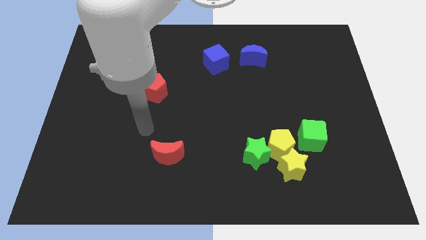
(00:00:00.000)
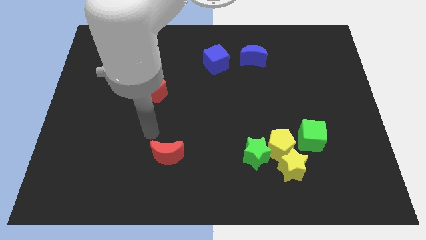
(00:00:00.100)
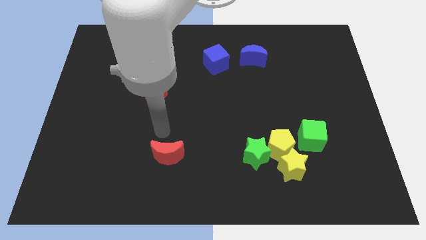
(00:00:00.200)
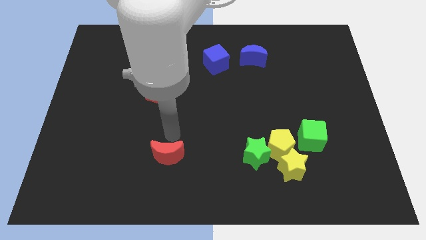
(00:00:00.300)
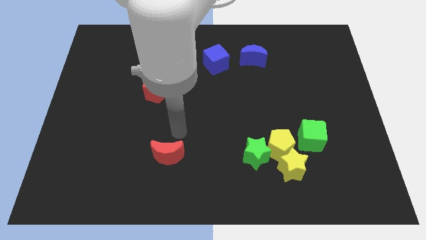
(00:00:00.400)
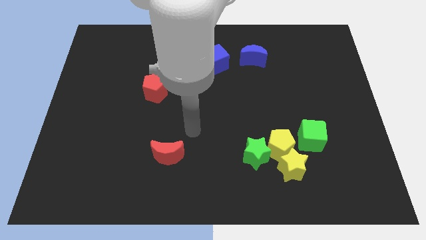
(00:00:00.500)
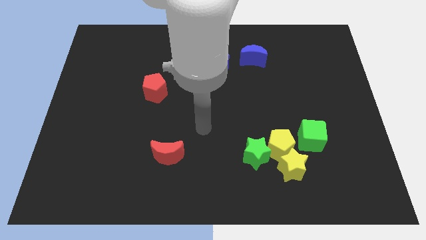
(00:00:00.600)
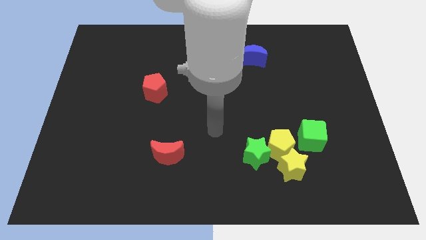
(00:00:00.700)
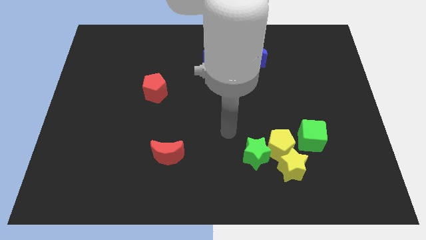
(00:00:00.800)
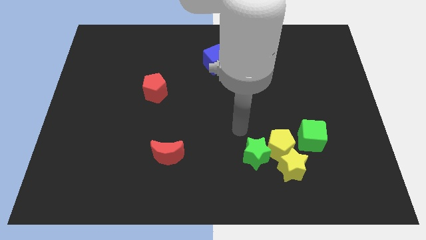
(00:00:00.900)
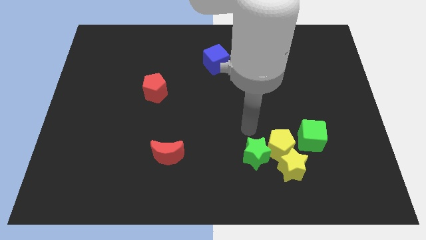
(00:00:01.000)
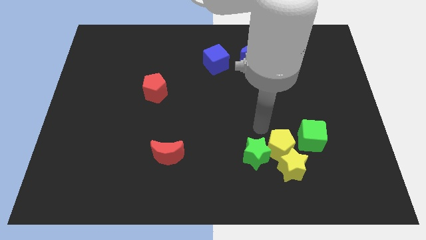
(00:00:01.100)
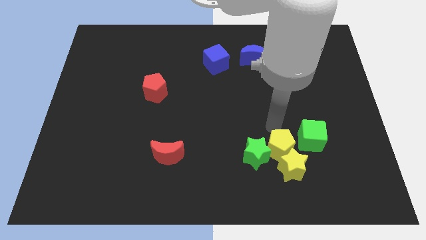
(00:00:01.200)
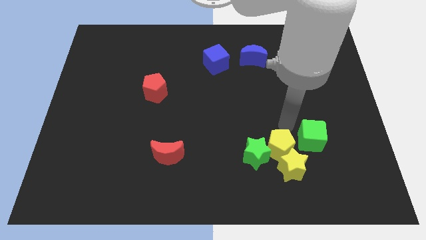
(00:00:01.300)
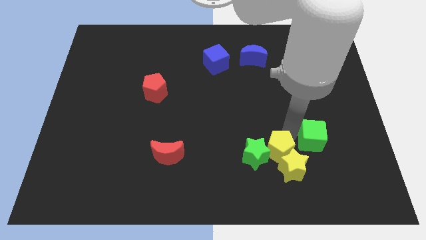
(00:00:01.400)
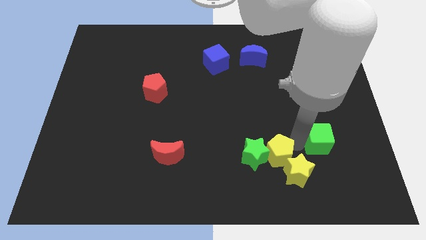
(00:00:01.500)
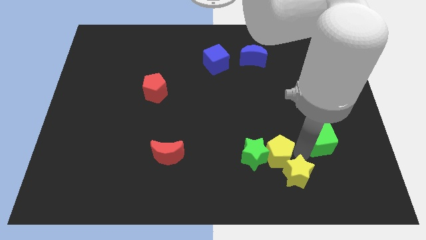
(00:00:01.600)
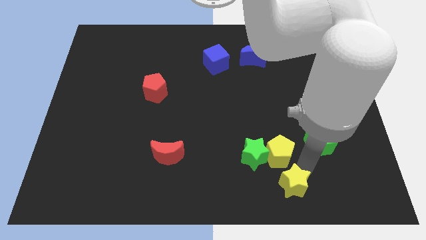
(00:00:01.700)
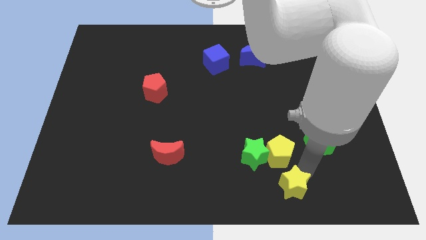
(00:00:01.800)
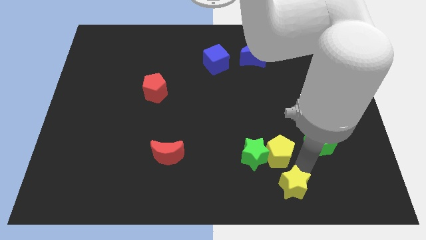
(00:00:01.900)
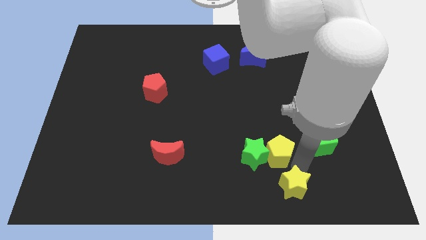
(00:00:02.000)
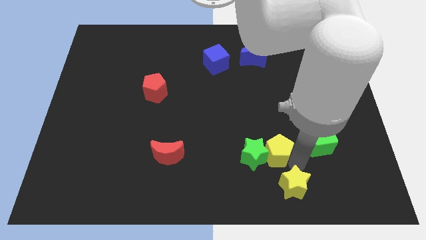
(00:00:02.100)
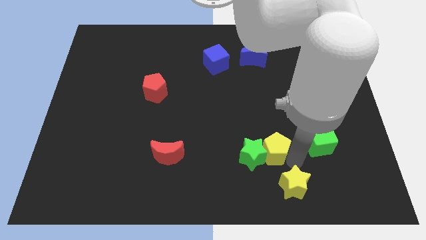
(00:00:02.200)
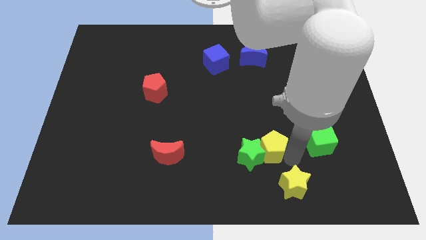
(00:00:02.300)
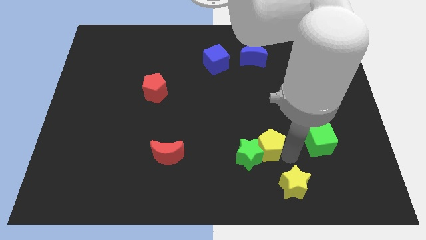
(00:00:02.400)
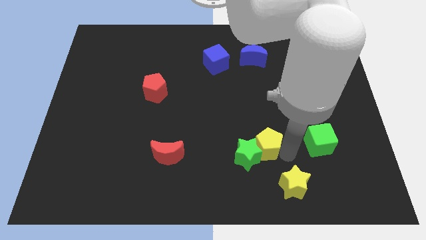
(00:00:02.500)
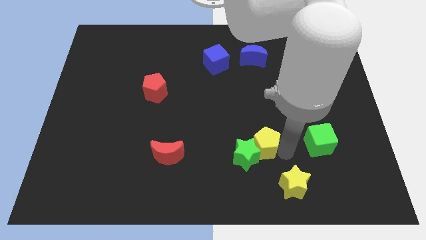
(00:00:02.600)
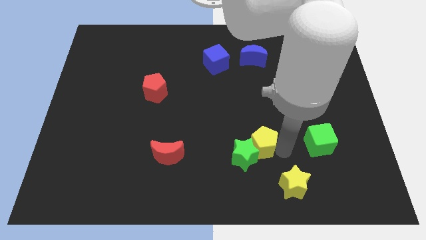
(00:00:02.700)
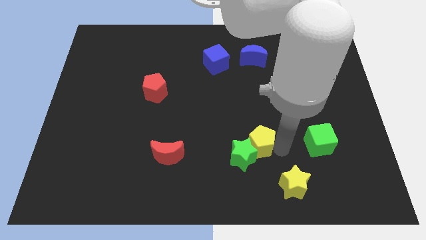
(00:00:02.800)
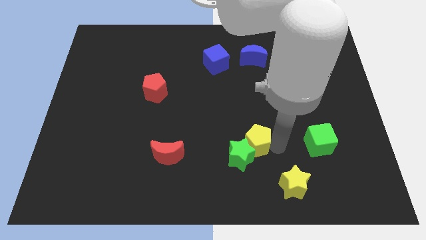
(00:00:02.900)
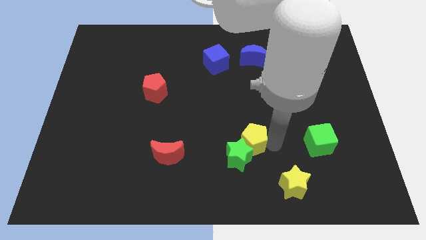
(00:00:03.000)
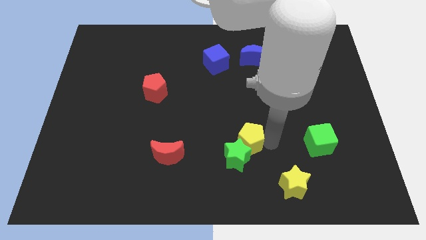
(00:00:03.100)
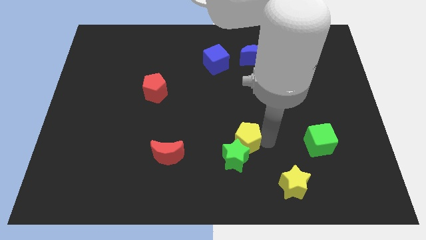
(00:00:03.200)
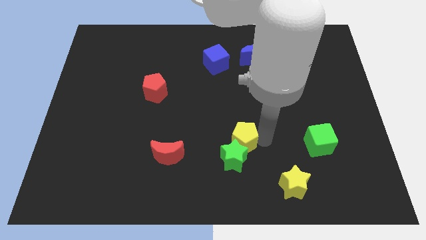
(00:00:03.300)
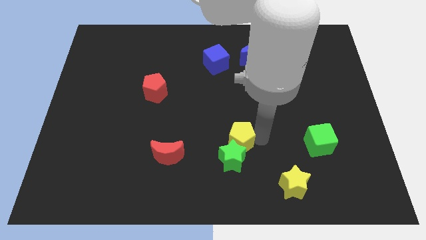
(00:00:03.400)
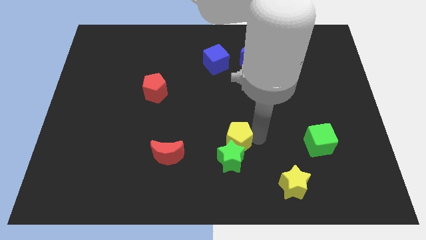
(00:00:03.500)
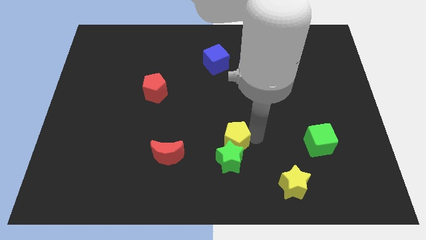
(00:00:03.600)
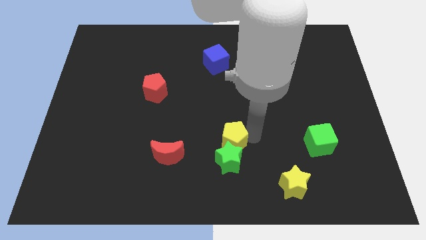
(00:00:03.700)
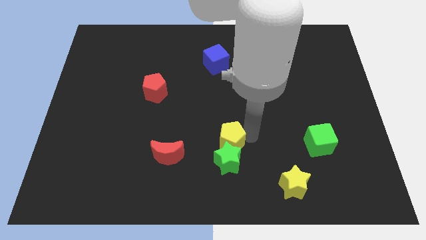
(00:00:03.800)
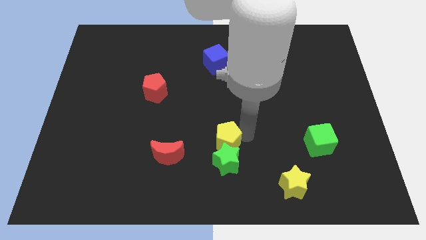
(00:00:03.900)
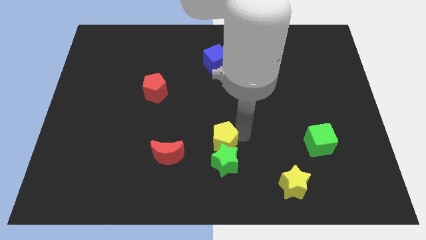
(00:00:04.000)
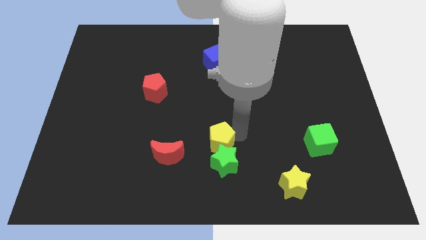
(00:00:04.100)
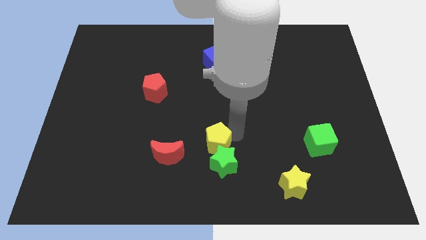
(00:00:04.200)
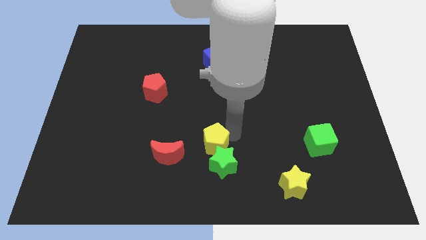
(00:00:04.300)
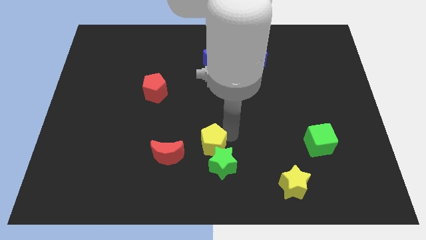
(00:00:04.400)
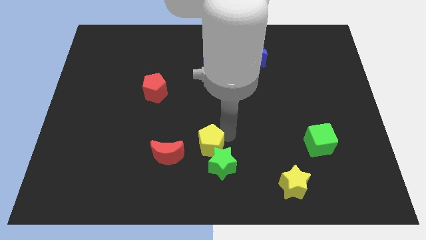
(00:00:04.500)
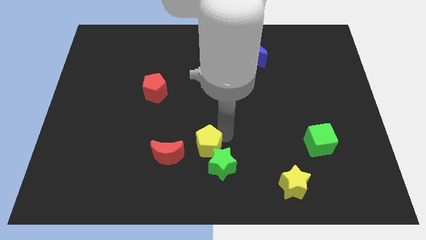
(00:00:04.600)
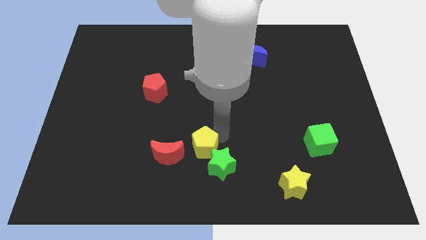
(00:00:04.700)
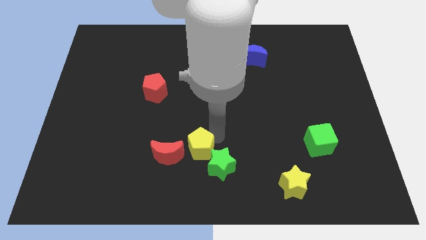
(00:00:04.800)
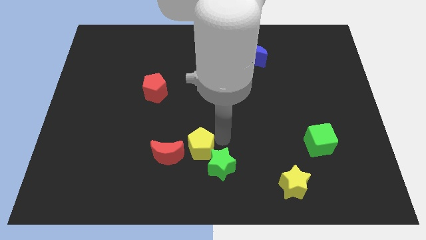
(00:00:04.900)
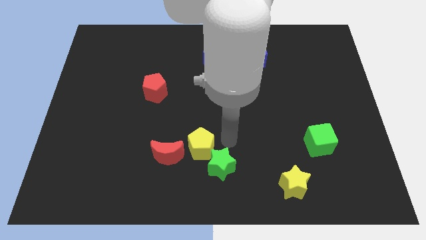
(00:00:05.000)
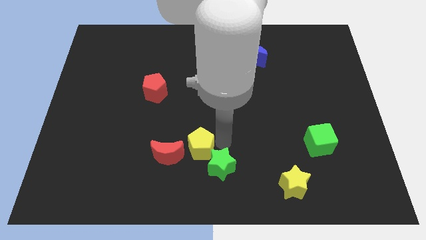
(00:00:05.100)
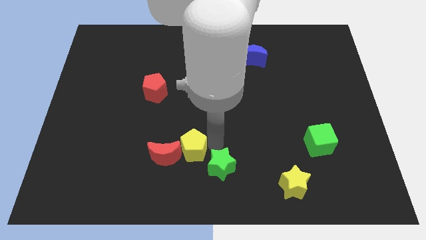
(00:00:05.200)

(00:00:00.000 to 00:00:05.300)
put the yellow pentagon towards the red moon

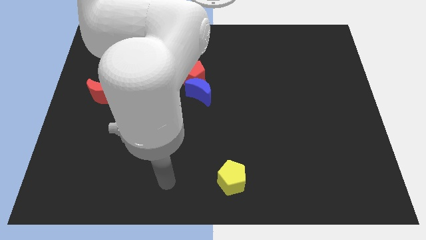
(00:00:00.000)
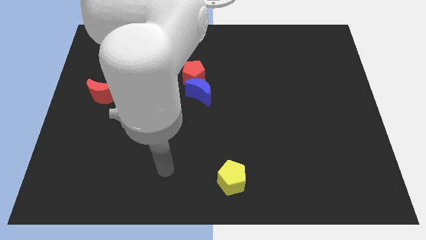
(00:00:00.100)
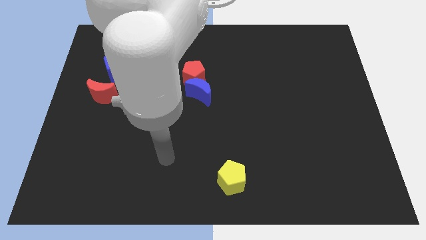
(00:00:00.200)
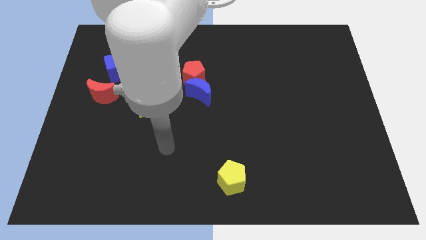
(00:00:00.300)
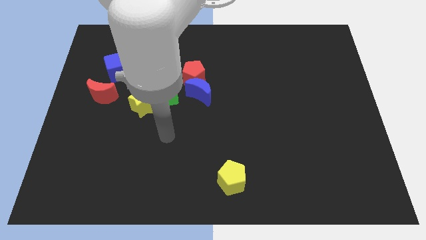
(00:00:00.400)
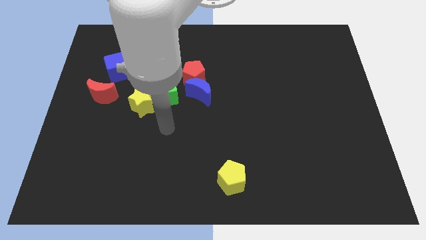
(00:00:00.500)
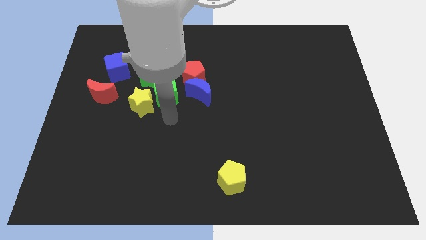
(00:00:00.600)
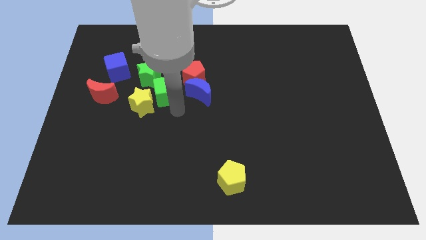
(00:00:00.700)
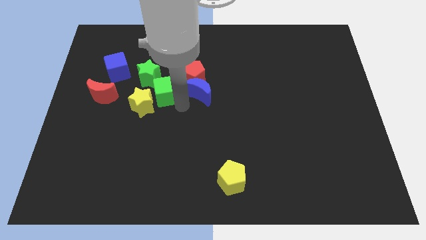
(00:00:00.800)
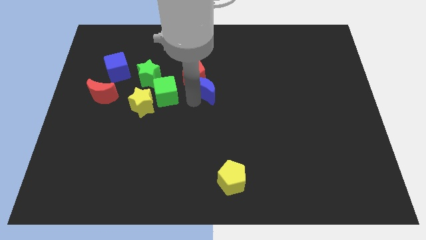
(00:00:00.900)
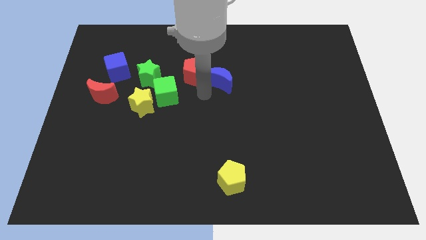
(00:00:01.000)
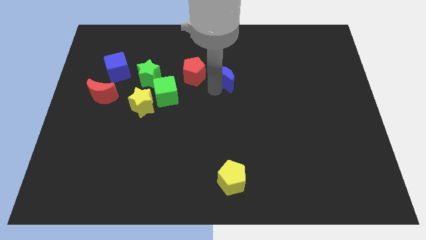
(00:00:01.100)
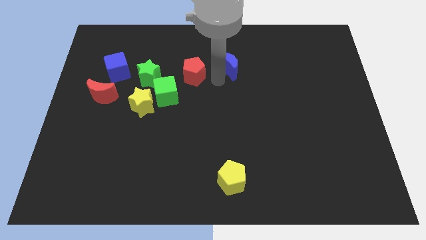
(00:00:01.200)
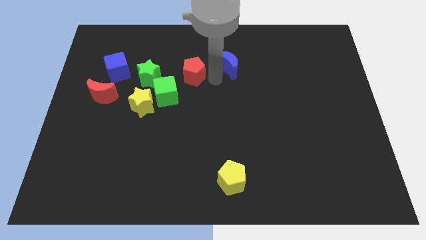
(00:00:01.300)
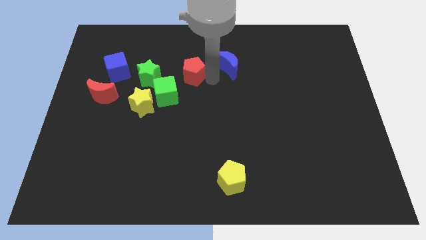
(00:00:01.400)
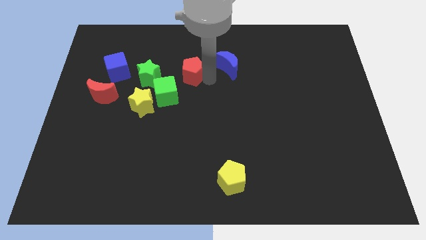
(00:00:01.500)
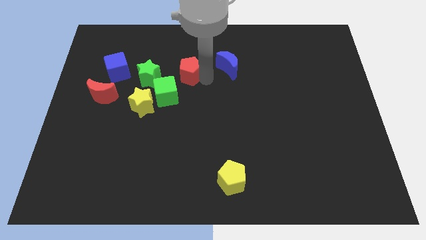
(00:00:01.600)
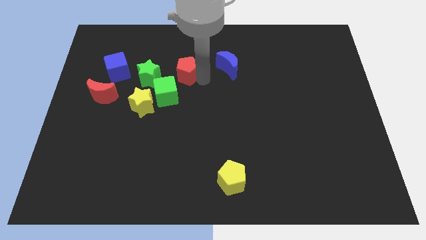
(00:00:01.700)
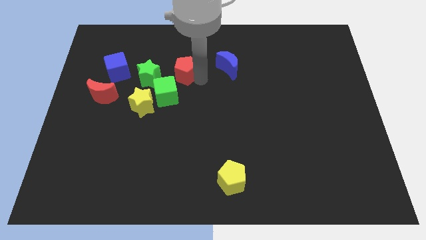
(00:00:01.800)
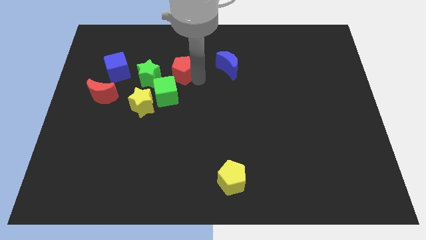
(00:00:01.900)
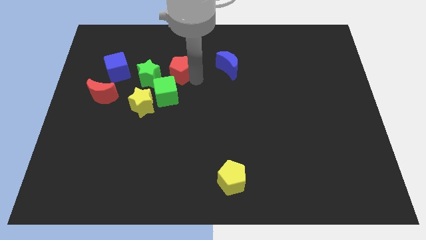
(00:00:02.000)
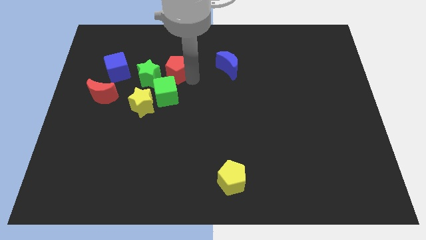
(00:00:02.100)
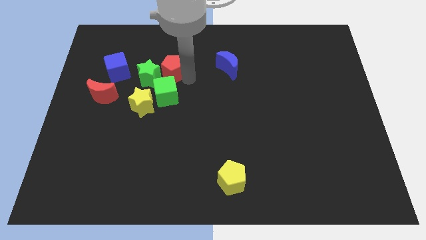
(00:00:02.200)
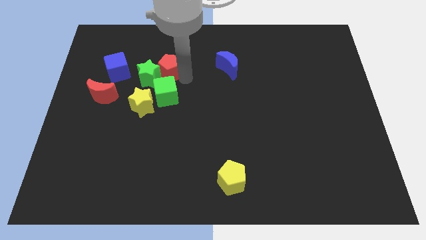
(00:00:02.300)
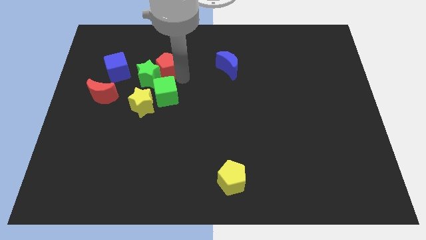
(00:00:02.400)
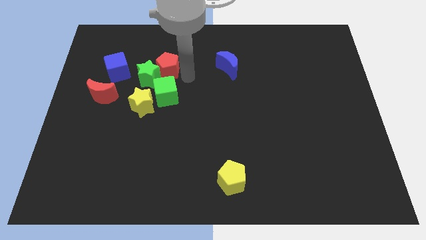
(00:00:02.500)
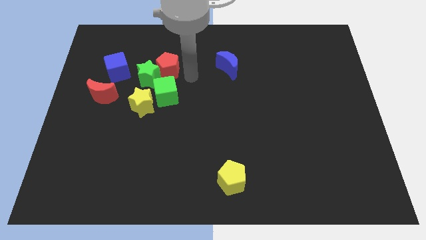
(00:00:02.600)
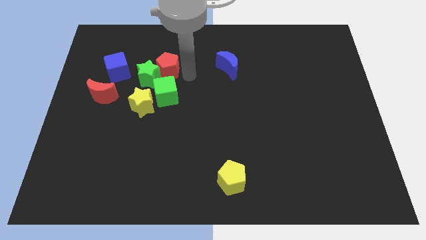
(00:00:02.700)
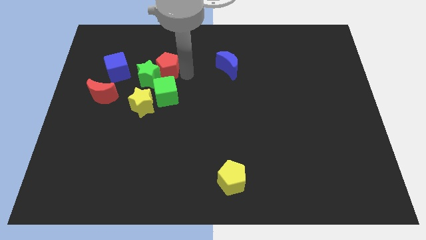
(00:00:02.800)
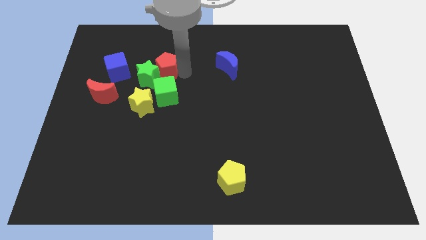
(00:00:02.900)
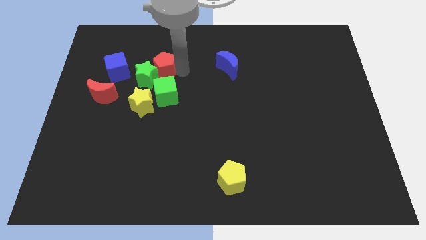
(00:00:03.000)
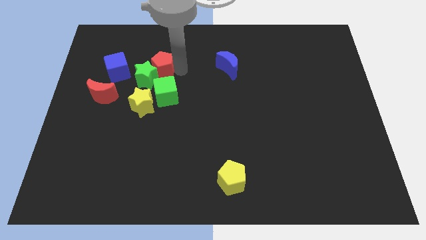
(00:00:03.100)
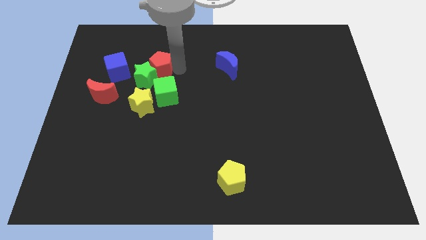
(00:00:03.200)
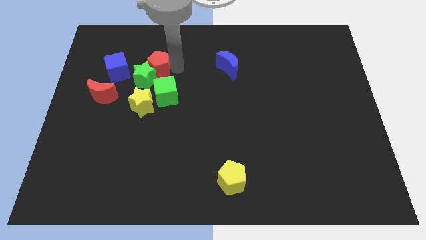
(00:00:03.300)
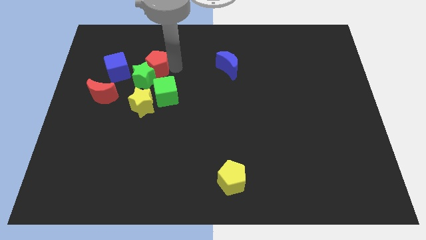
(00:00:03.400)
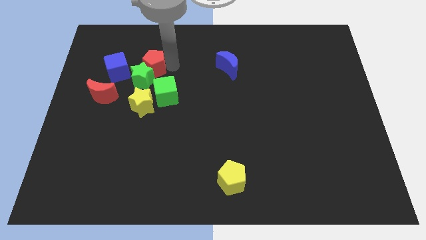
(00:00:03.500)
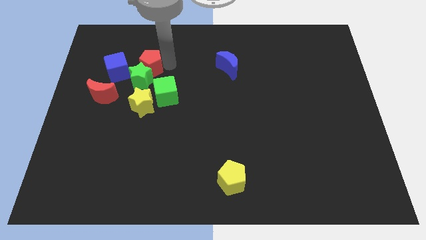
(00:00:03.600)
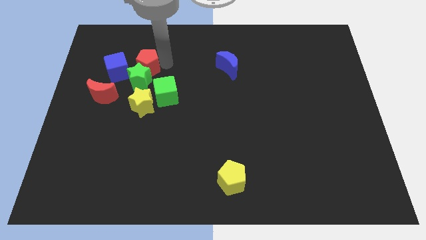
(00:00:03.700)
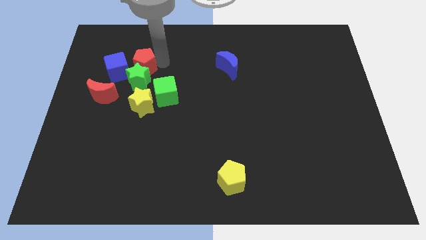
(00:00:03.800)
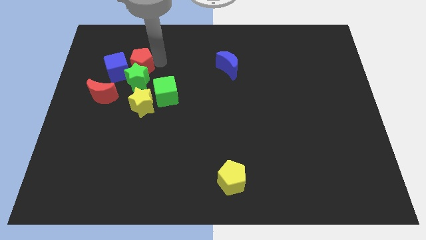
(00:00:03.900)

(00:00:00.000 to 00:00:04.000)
move the red pentagon close to the blue cube
